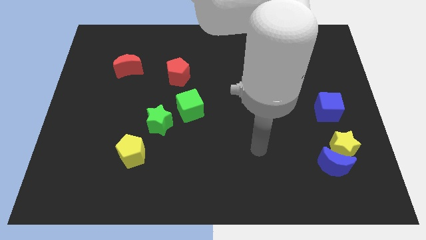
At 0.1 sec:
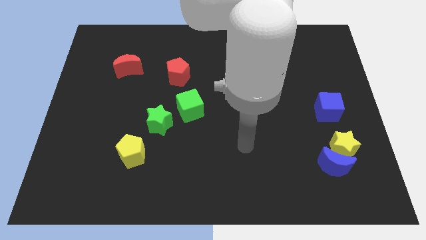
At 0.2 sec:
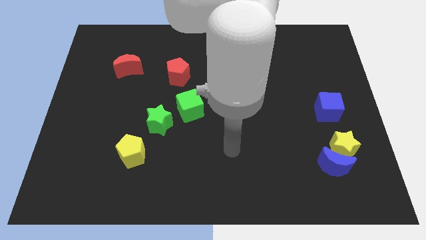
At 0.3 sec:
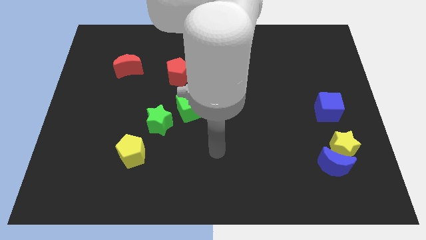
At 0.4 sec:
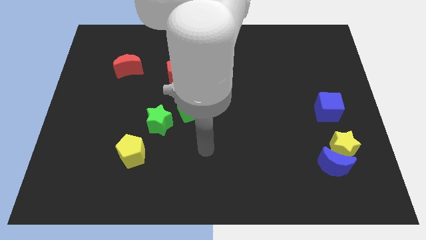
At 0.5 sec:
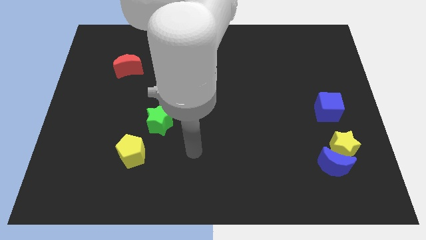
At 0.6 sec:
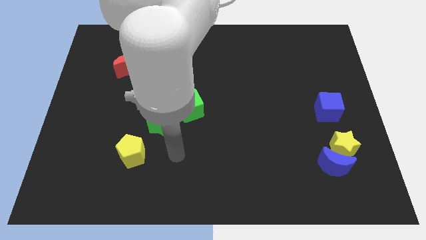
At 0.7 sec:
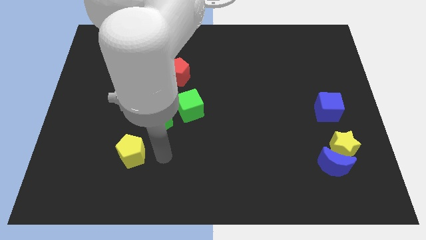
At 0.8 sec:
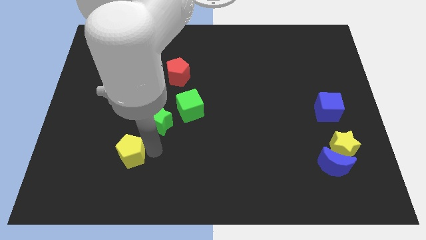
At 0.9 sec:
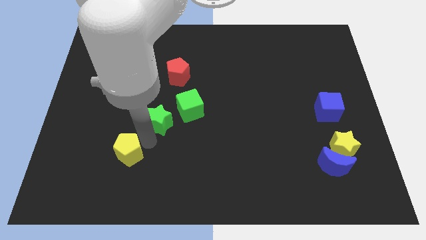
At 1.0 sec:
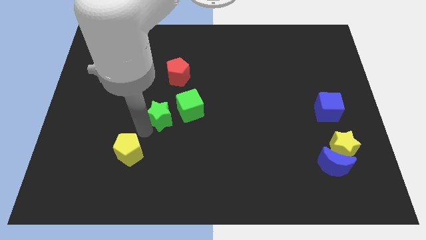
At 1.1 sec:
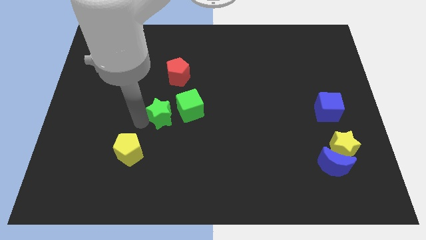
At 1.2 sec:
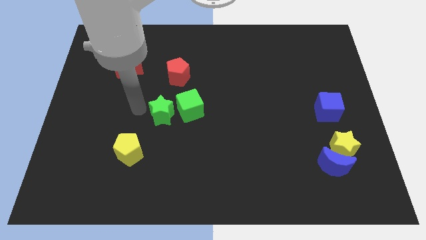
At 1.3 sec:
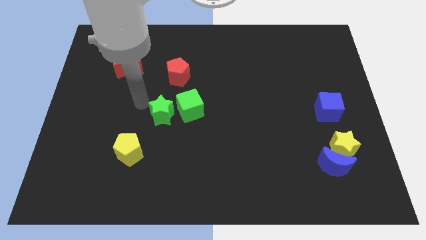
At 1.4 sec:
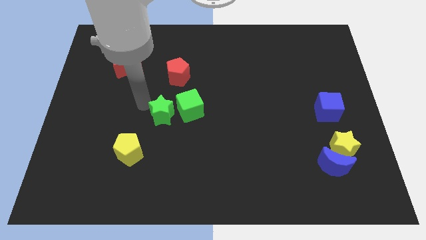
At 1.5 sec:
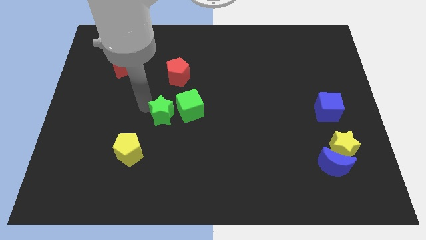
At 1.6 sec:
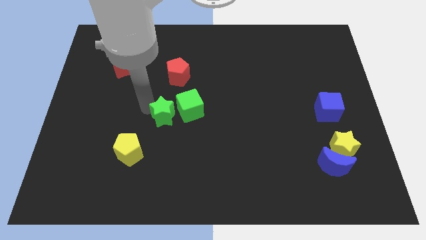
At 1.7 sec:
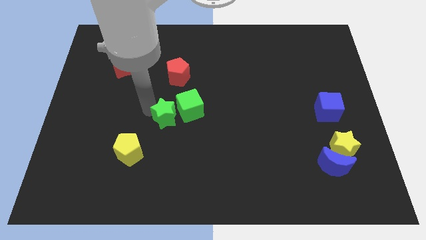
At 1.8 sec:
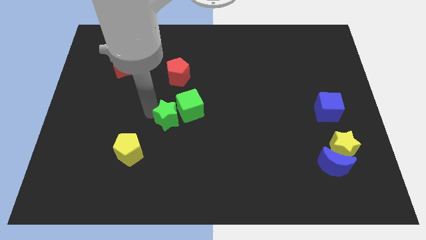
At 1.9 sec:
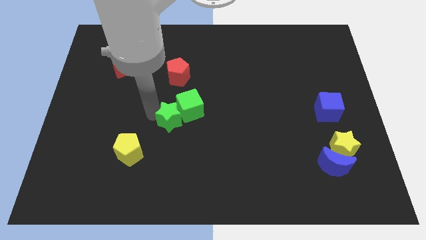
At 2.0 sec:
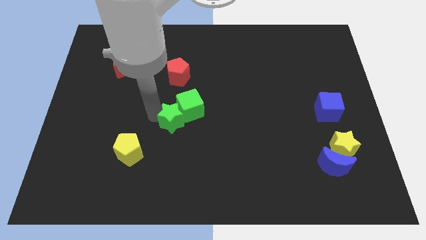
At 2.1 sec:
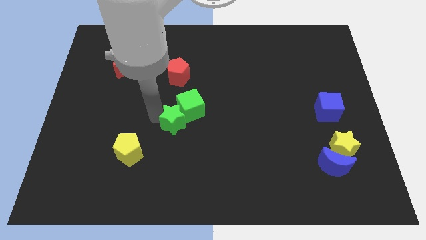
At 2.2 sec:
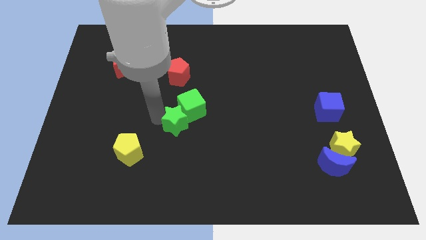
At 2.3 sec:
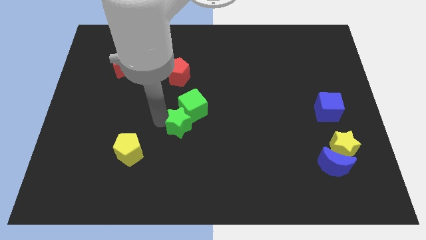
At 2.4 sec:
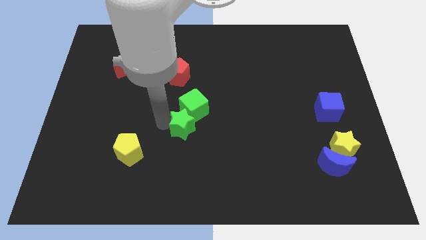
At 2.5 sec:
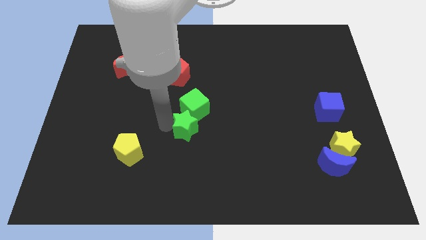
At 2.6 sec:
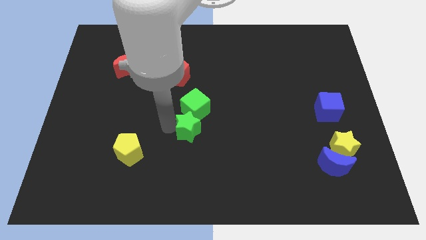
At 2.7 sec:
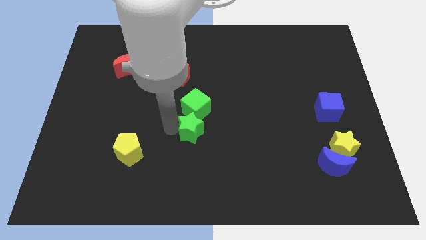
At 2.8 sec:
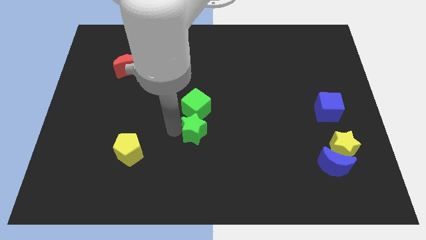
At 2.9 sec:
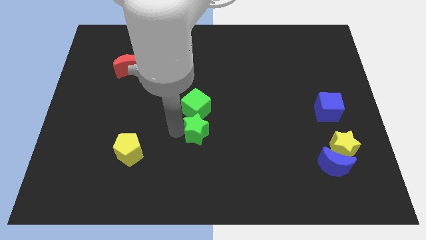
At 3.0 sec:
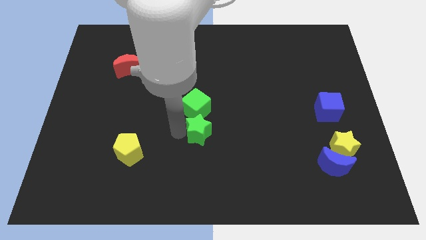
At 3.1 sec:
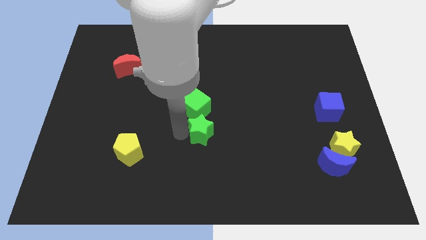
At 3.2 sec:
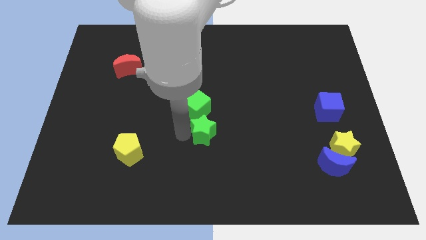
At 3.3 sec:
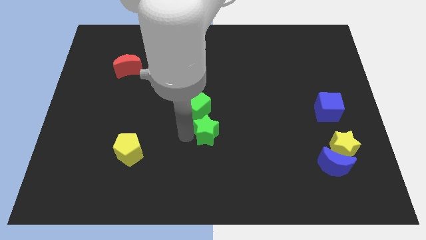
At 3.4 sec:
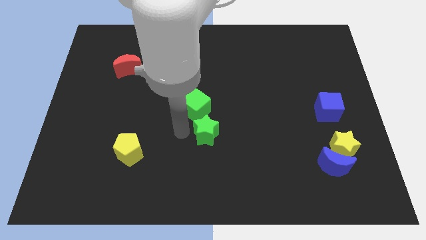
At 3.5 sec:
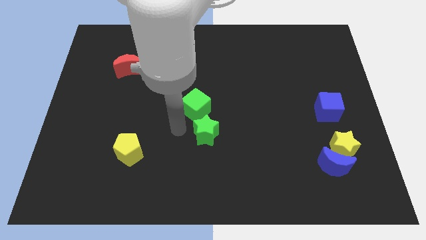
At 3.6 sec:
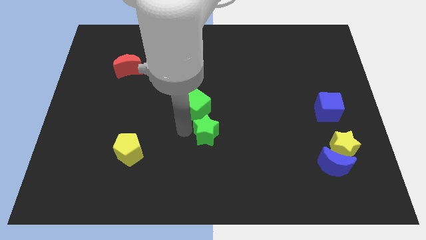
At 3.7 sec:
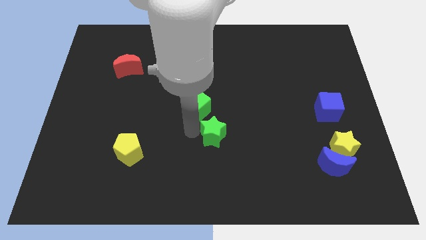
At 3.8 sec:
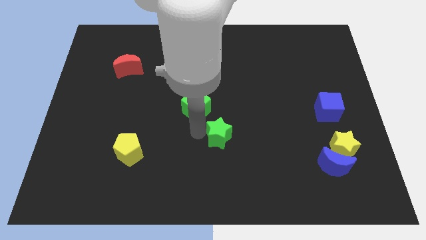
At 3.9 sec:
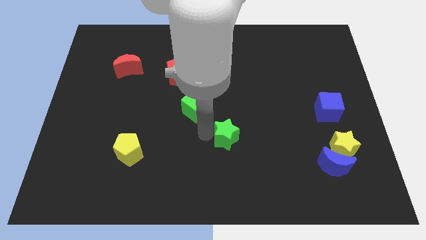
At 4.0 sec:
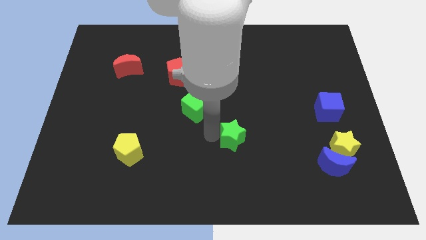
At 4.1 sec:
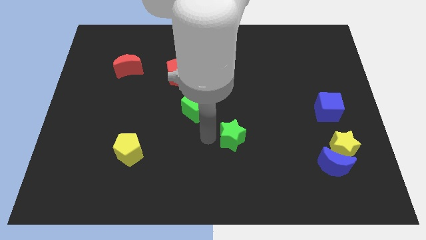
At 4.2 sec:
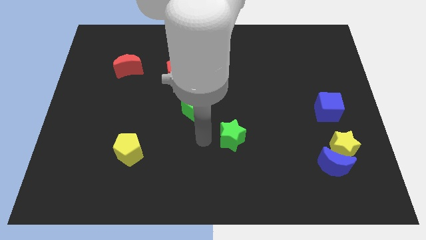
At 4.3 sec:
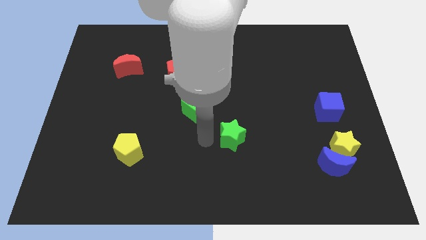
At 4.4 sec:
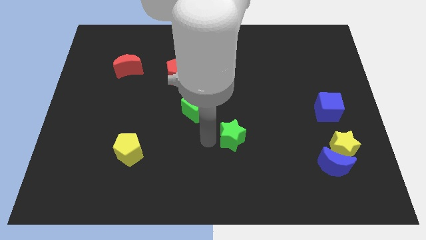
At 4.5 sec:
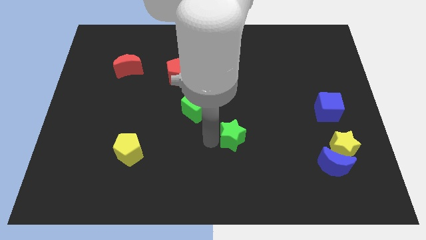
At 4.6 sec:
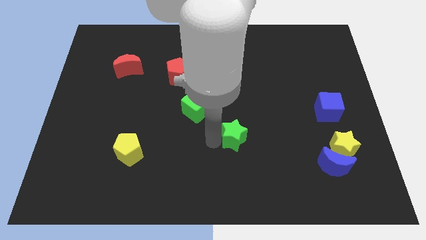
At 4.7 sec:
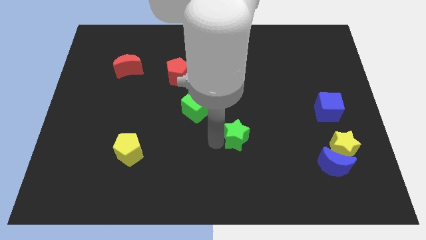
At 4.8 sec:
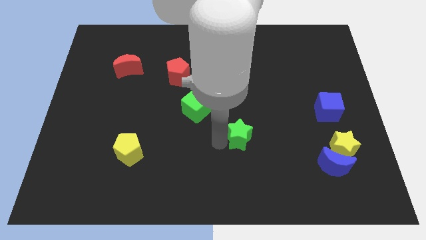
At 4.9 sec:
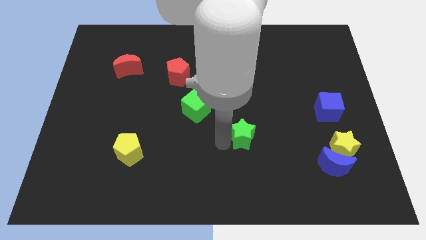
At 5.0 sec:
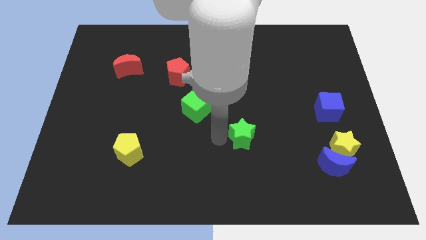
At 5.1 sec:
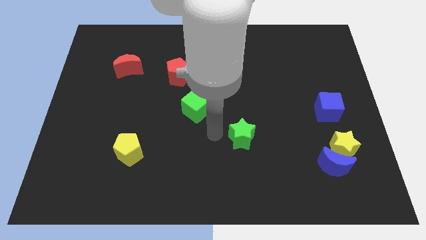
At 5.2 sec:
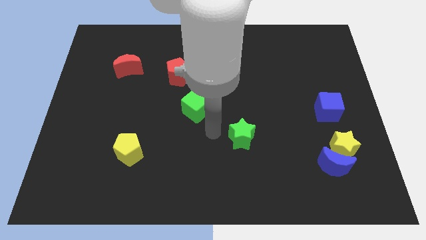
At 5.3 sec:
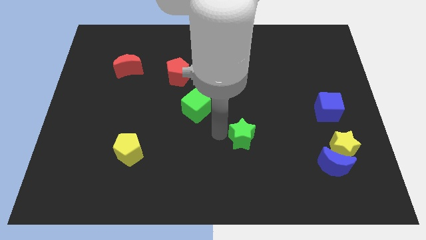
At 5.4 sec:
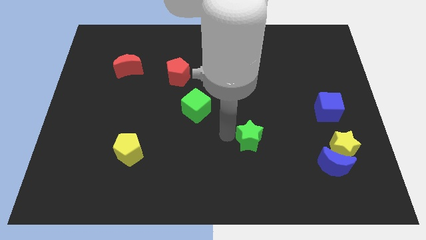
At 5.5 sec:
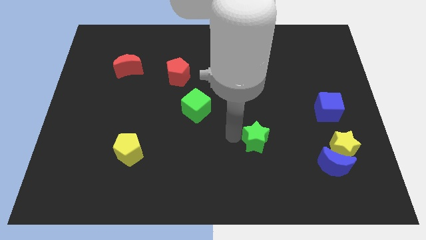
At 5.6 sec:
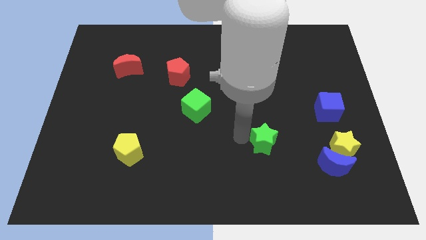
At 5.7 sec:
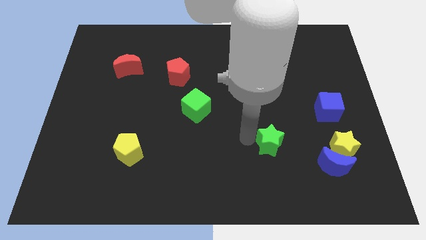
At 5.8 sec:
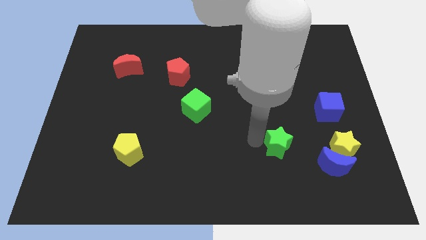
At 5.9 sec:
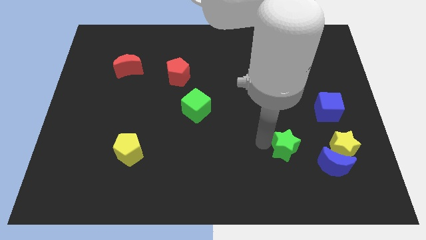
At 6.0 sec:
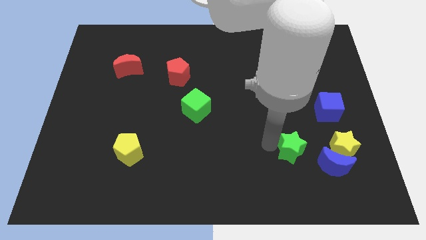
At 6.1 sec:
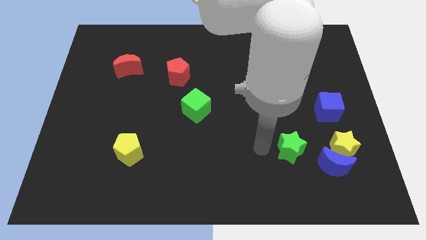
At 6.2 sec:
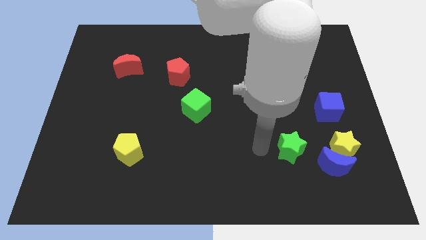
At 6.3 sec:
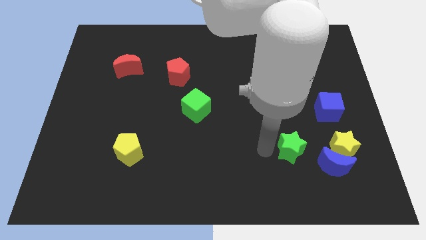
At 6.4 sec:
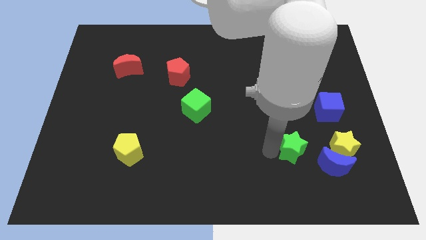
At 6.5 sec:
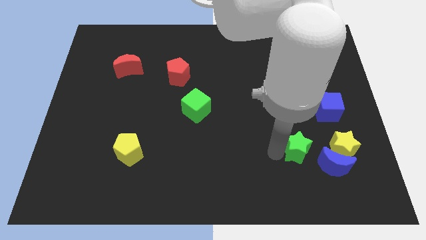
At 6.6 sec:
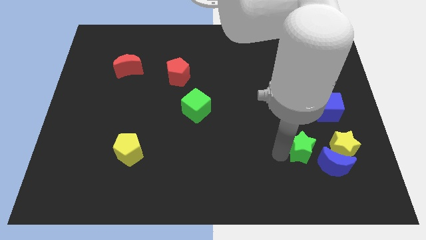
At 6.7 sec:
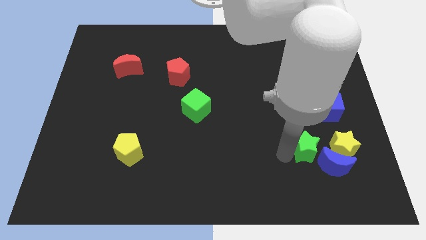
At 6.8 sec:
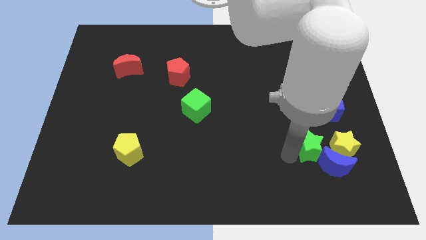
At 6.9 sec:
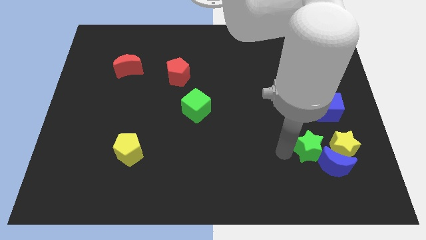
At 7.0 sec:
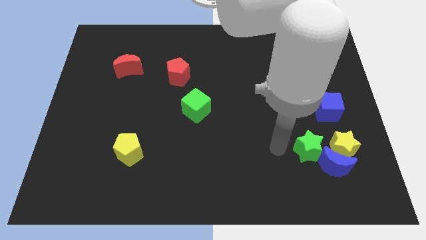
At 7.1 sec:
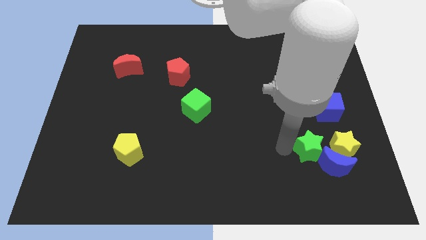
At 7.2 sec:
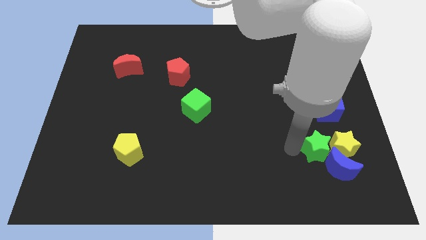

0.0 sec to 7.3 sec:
put the green star next to the yellow star

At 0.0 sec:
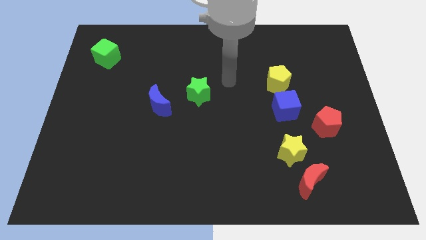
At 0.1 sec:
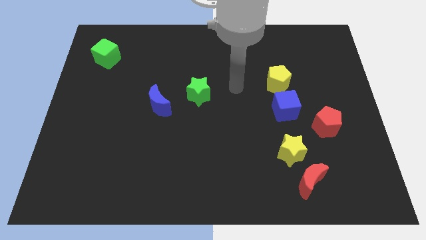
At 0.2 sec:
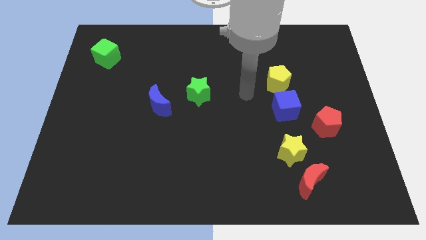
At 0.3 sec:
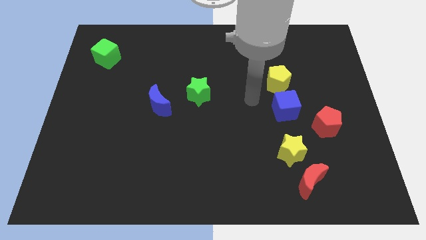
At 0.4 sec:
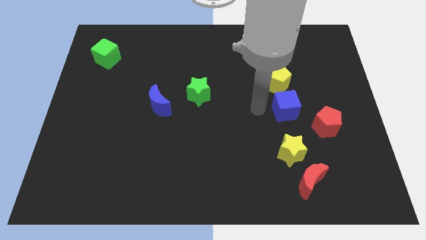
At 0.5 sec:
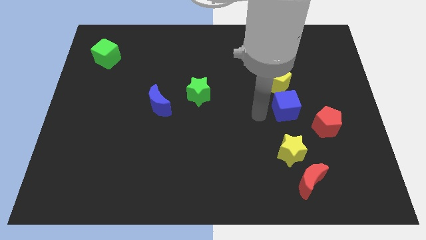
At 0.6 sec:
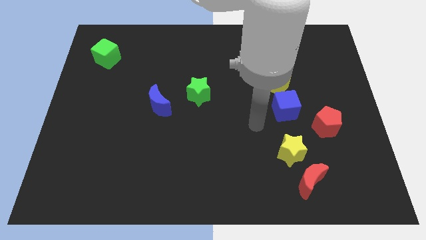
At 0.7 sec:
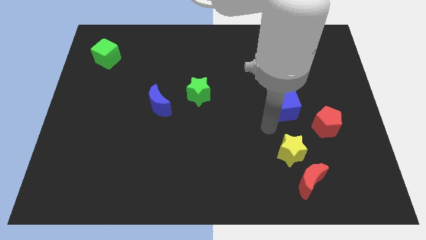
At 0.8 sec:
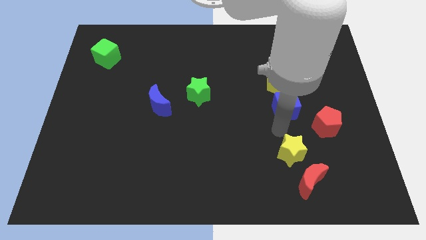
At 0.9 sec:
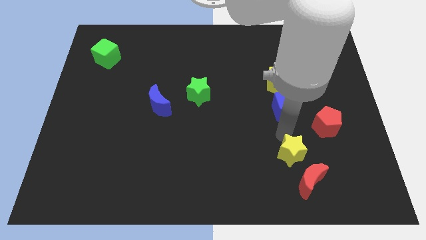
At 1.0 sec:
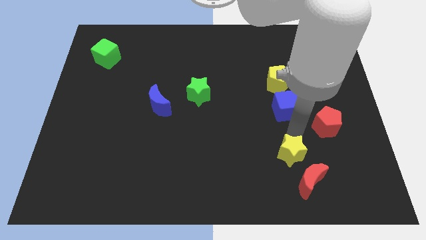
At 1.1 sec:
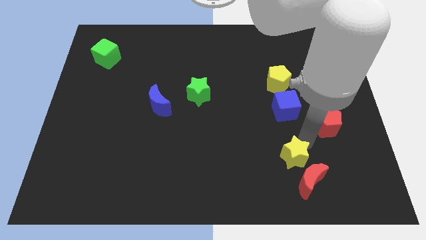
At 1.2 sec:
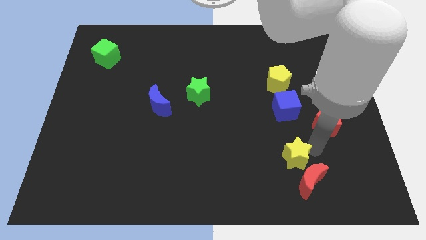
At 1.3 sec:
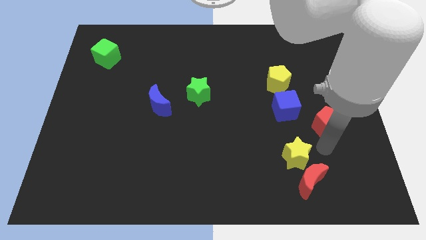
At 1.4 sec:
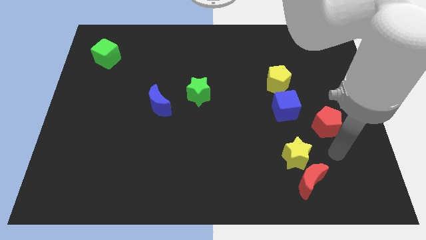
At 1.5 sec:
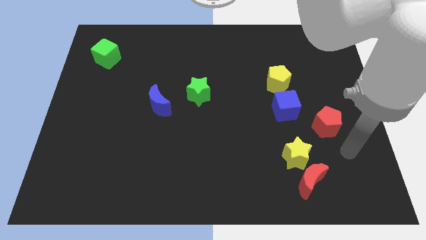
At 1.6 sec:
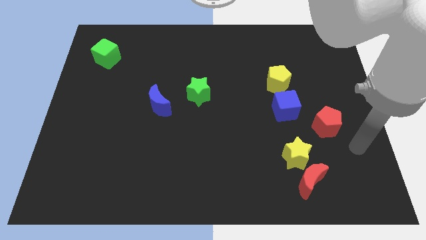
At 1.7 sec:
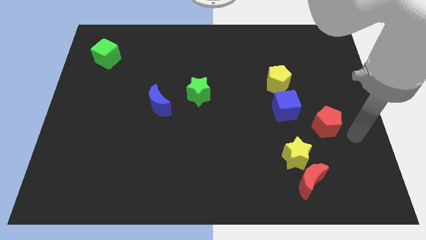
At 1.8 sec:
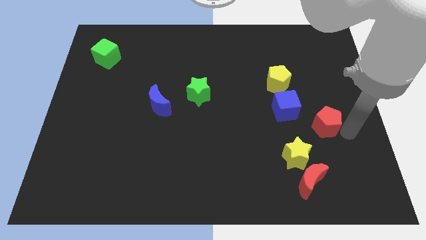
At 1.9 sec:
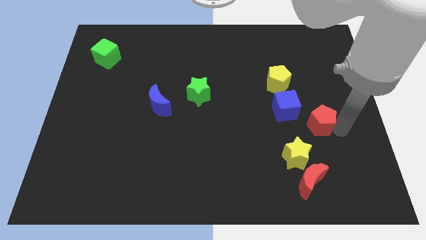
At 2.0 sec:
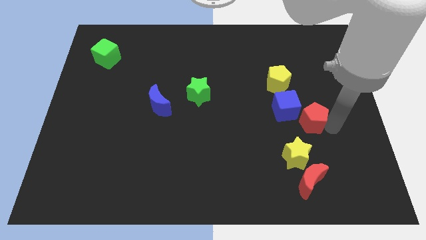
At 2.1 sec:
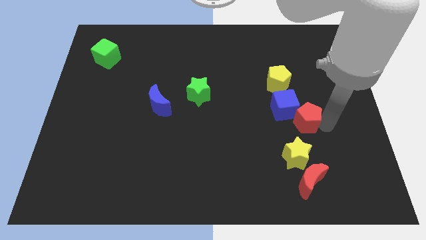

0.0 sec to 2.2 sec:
move the red pentagon towards the blue cube
